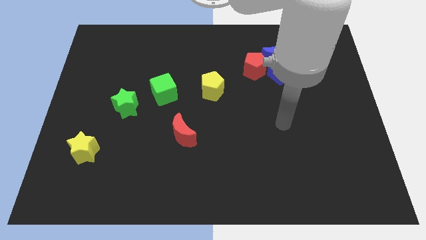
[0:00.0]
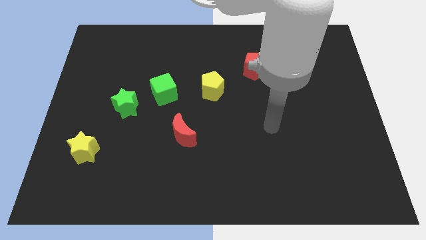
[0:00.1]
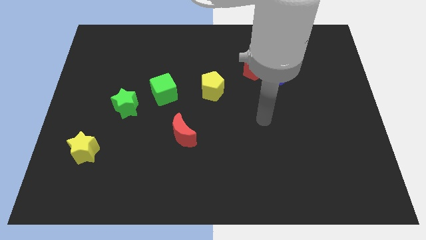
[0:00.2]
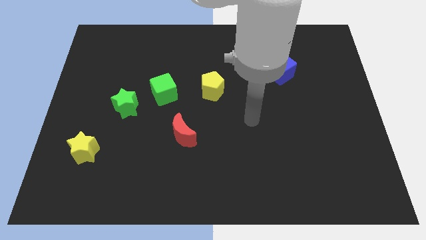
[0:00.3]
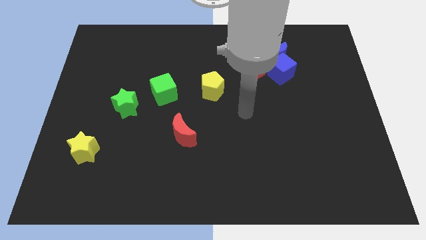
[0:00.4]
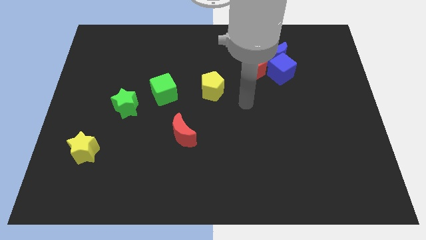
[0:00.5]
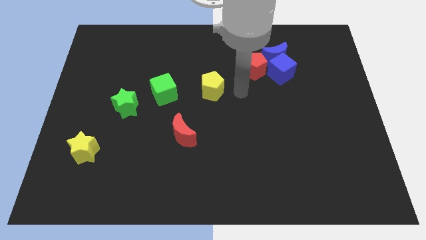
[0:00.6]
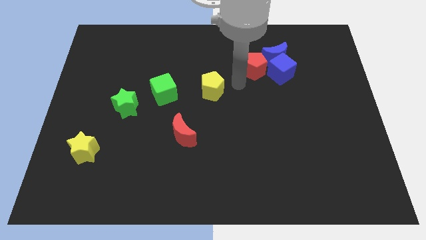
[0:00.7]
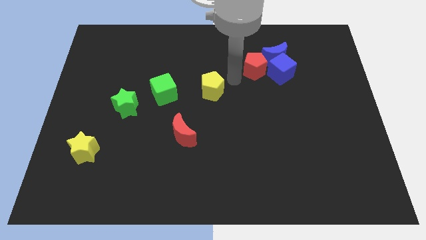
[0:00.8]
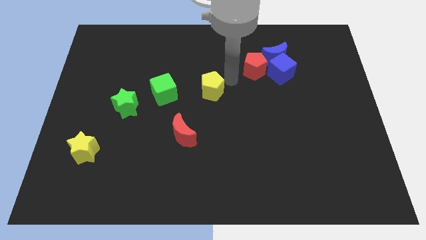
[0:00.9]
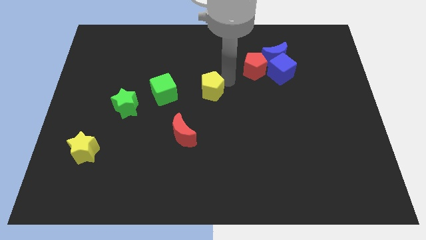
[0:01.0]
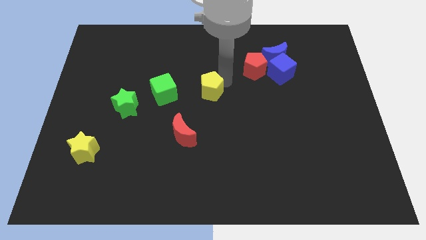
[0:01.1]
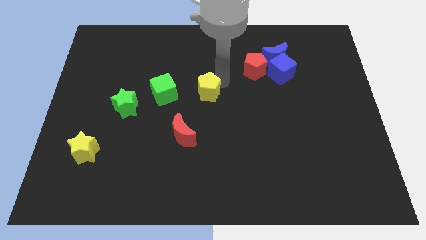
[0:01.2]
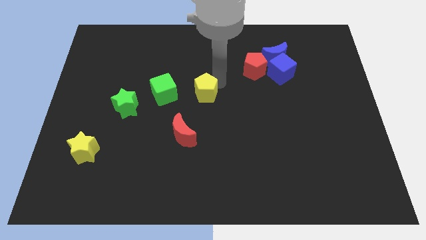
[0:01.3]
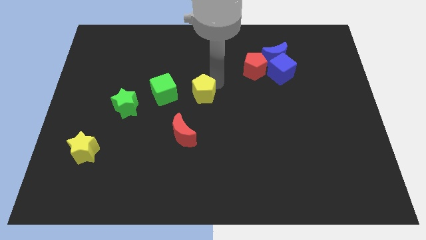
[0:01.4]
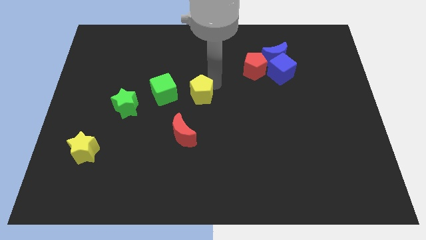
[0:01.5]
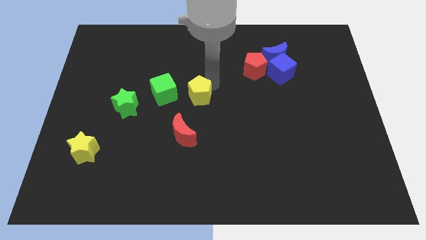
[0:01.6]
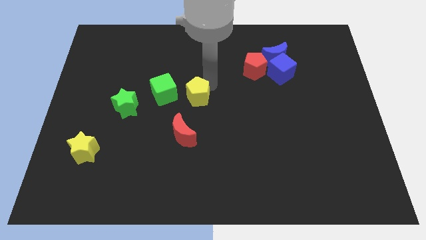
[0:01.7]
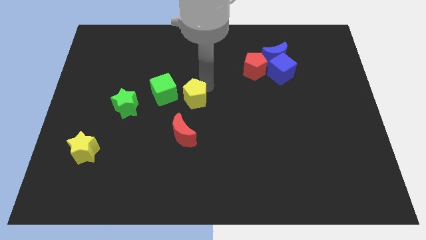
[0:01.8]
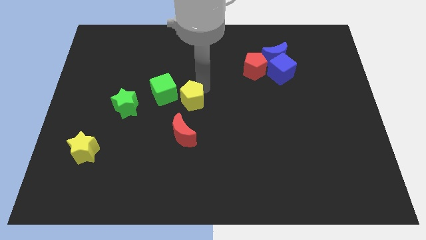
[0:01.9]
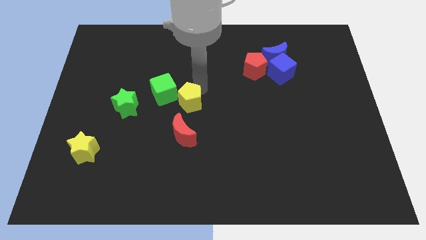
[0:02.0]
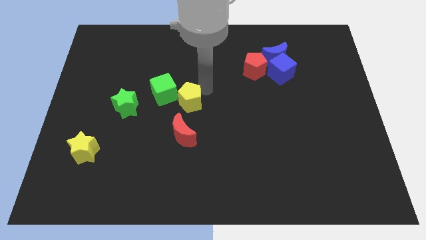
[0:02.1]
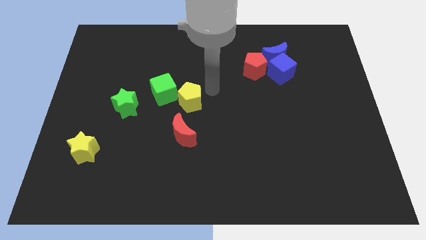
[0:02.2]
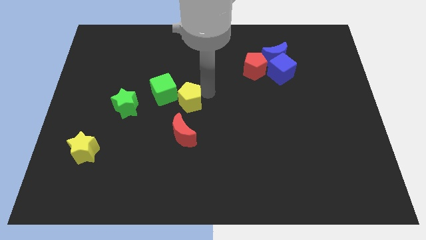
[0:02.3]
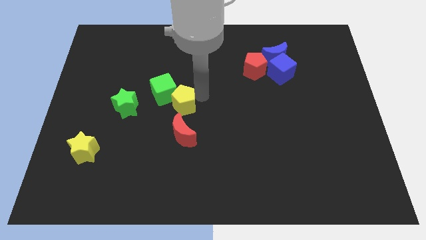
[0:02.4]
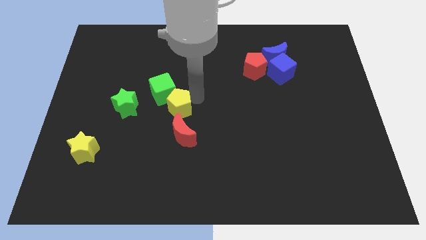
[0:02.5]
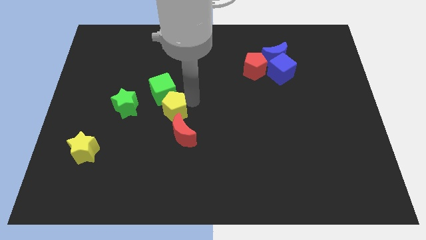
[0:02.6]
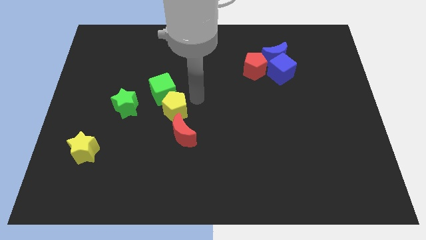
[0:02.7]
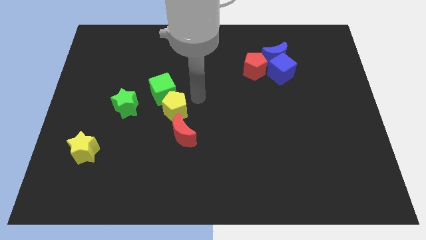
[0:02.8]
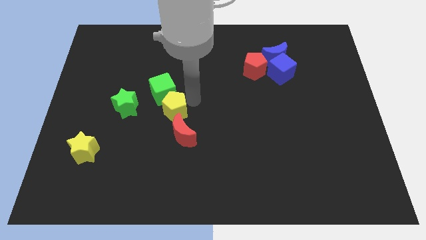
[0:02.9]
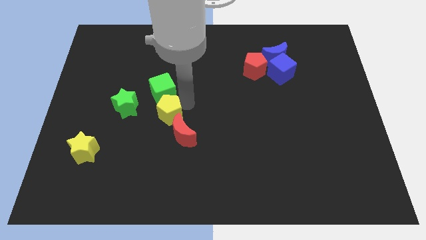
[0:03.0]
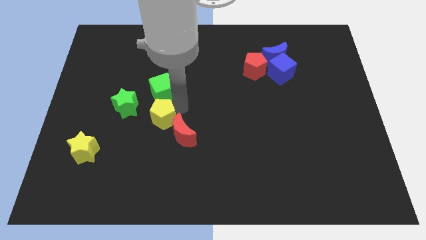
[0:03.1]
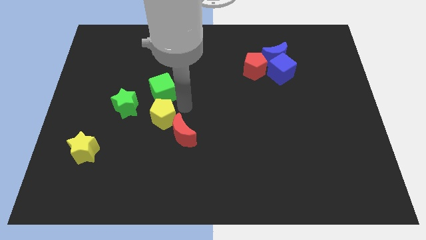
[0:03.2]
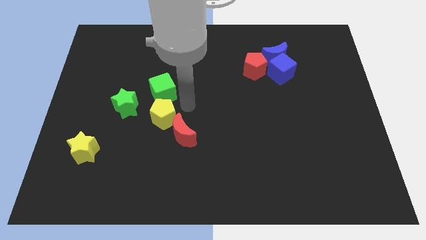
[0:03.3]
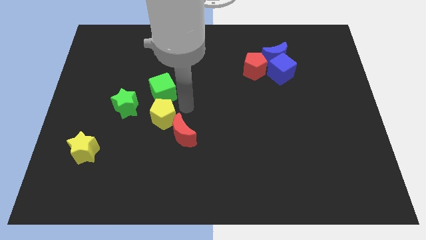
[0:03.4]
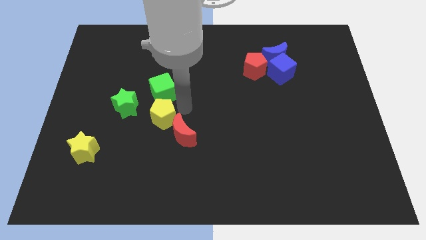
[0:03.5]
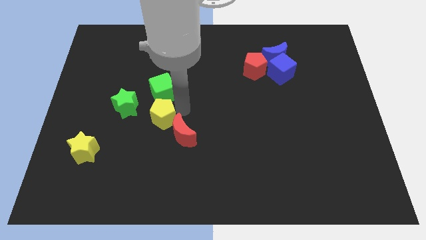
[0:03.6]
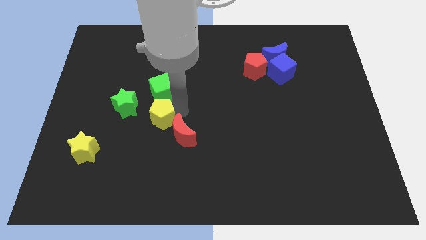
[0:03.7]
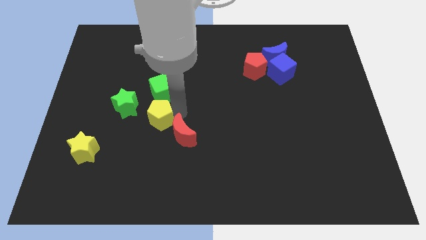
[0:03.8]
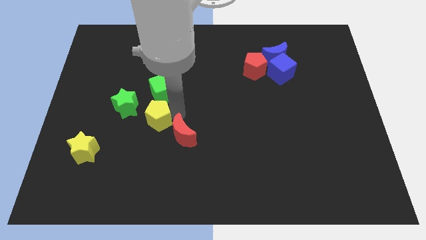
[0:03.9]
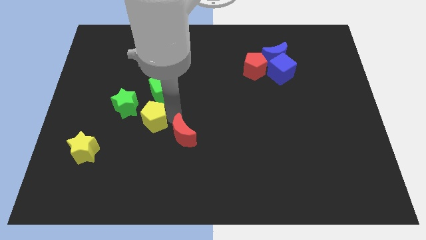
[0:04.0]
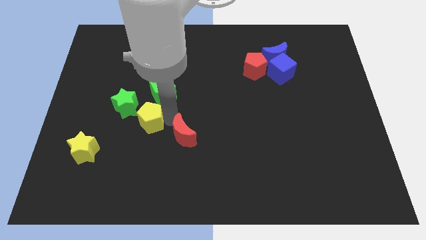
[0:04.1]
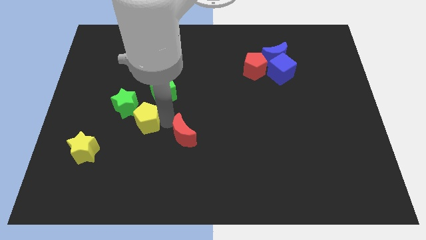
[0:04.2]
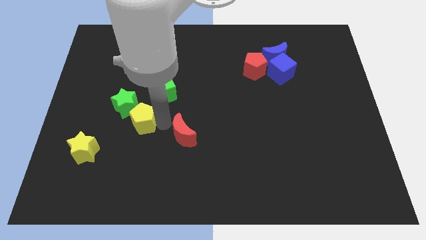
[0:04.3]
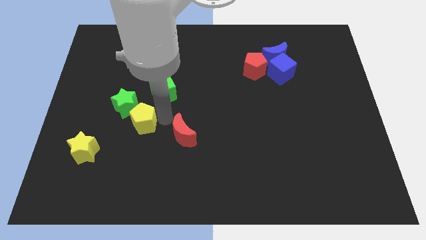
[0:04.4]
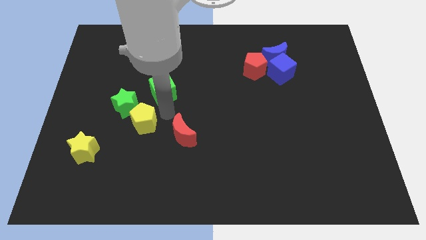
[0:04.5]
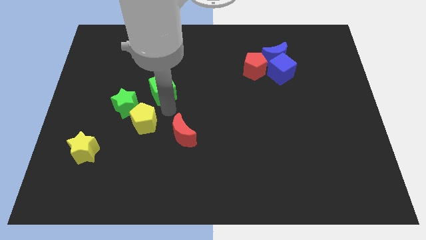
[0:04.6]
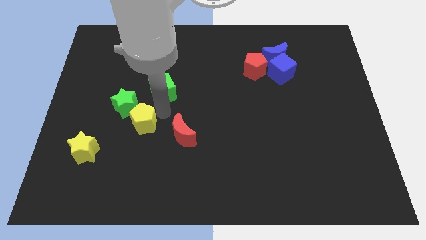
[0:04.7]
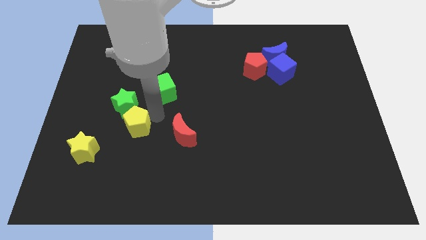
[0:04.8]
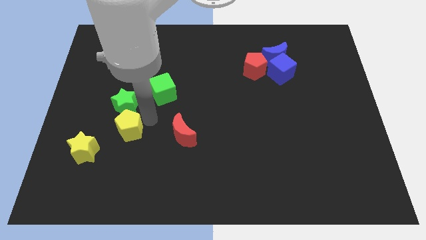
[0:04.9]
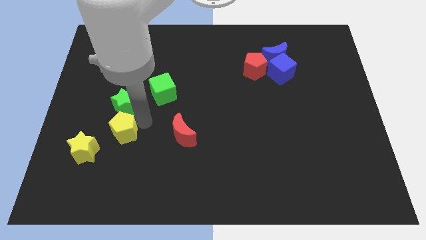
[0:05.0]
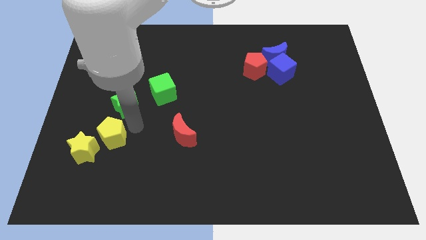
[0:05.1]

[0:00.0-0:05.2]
put the yellow pentagon towards the yellow star

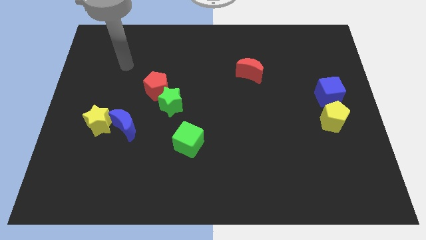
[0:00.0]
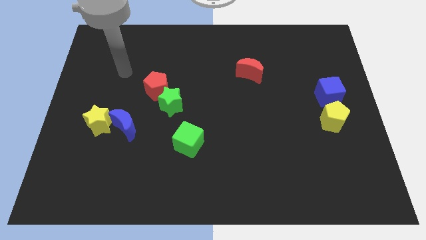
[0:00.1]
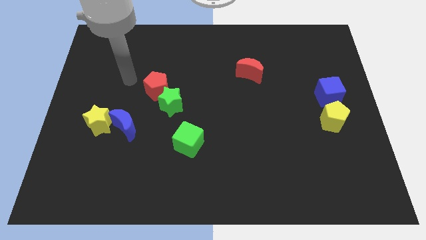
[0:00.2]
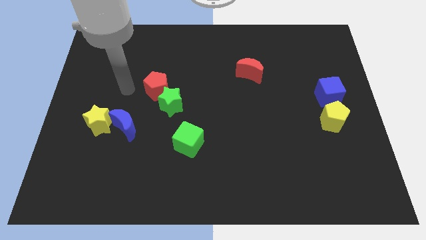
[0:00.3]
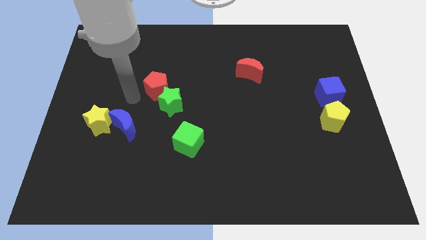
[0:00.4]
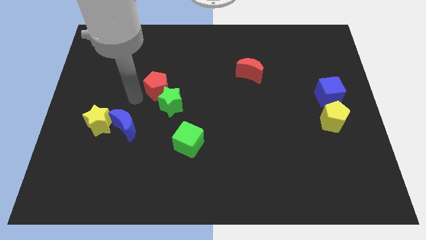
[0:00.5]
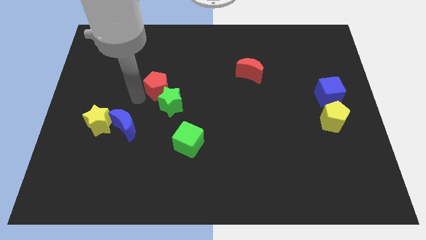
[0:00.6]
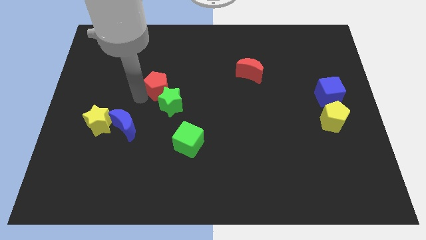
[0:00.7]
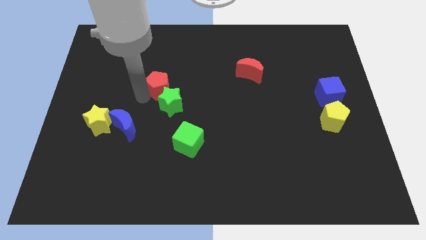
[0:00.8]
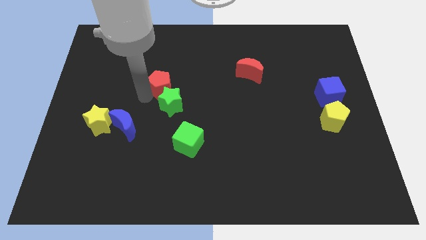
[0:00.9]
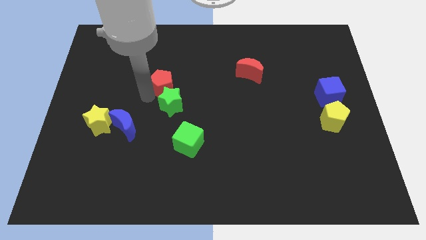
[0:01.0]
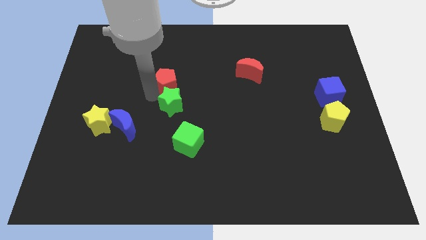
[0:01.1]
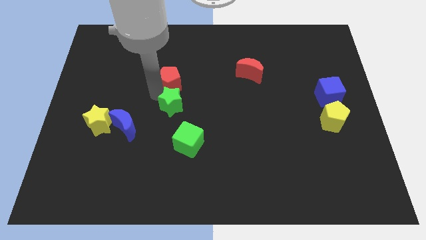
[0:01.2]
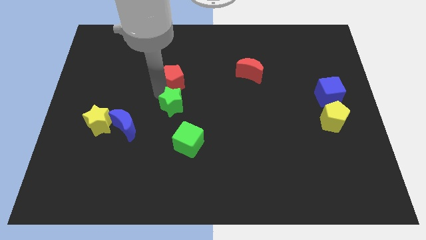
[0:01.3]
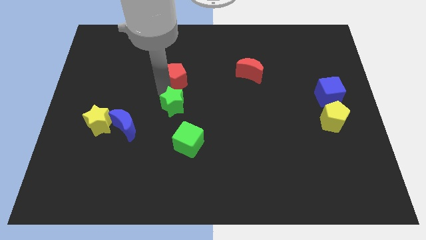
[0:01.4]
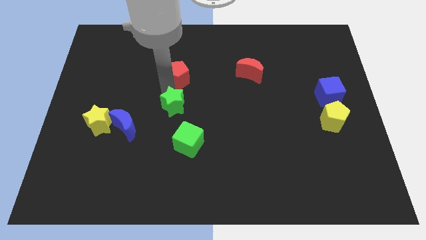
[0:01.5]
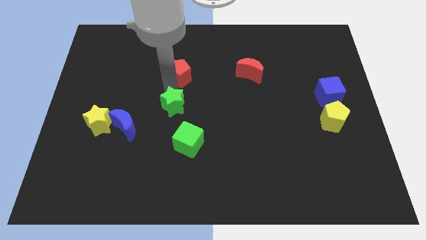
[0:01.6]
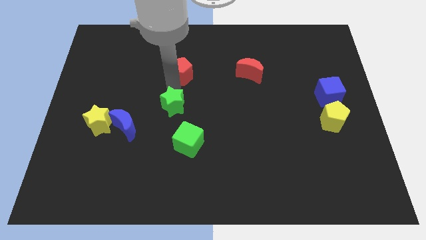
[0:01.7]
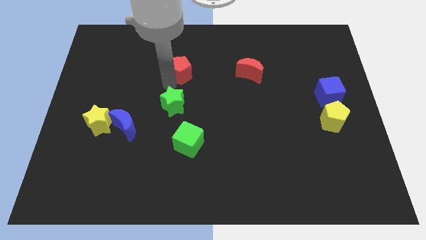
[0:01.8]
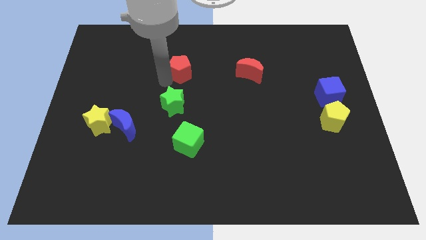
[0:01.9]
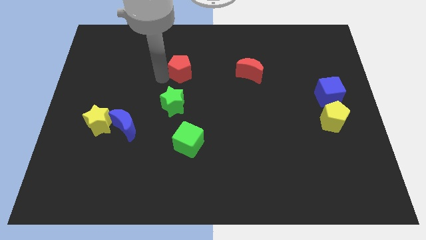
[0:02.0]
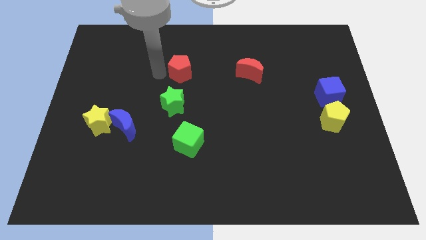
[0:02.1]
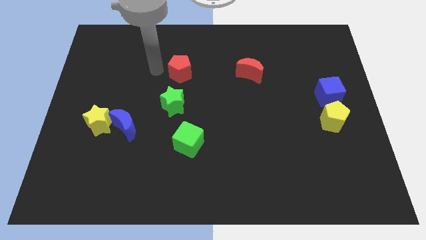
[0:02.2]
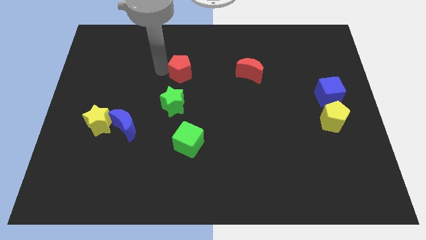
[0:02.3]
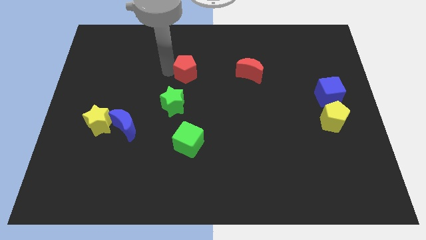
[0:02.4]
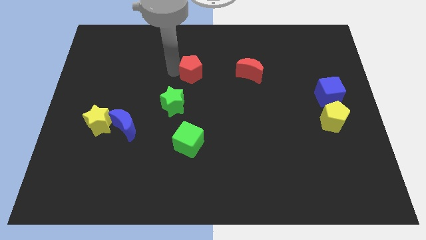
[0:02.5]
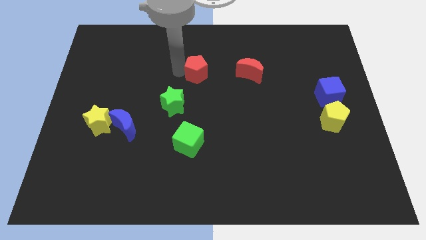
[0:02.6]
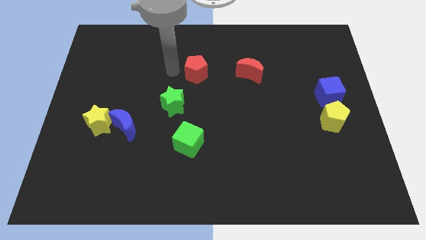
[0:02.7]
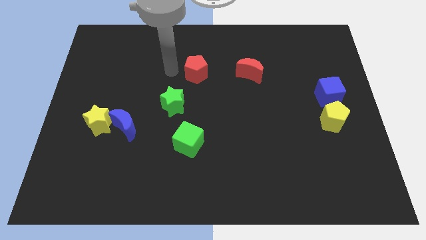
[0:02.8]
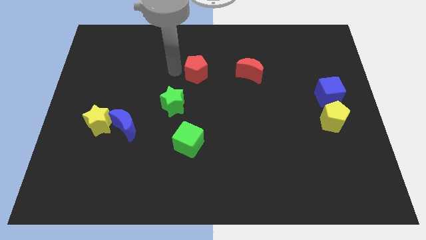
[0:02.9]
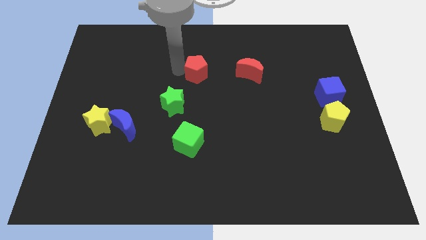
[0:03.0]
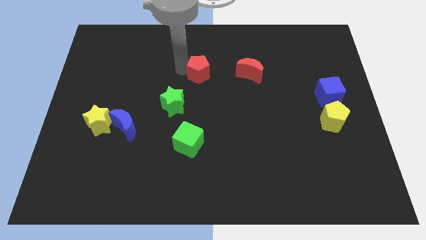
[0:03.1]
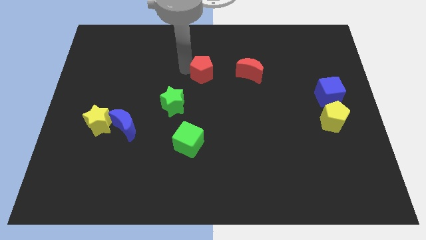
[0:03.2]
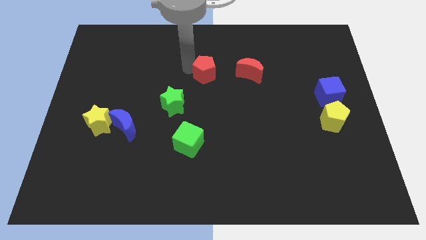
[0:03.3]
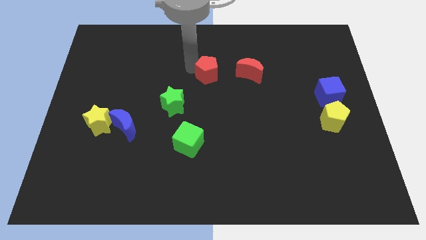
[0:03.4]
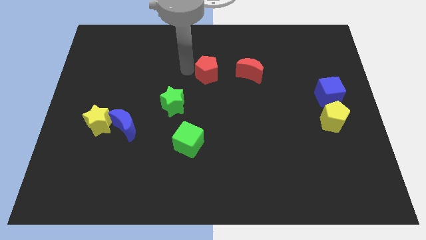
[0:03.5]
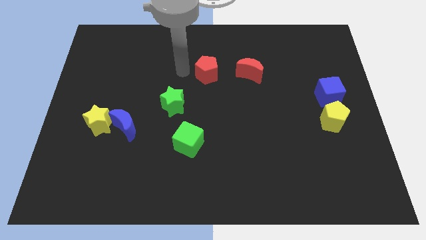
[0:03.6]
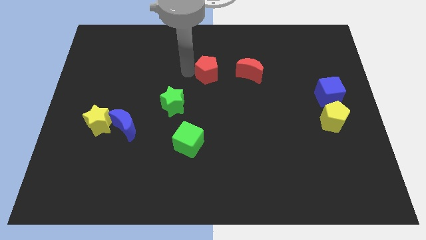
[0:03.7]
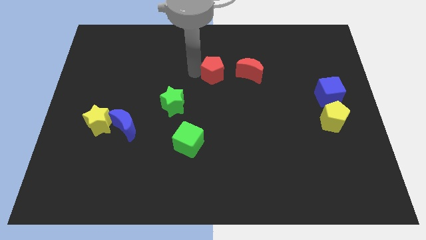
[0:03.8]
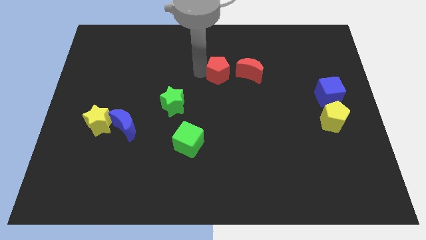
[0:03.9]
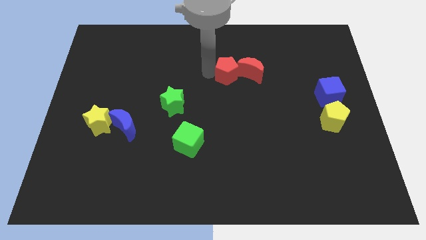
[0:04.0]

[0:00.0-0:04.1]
slide the red pentagon close to the red moon
